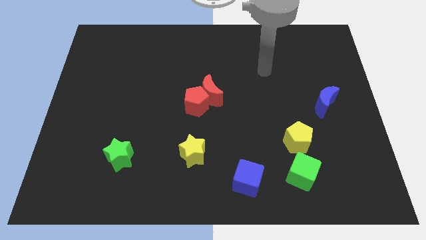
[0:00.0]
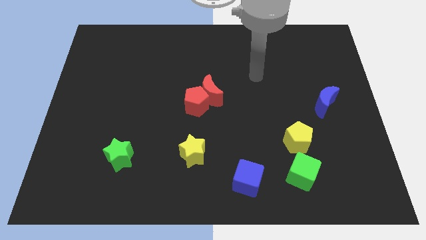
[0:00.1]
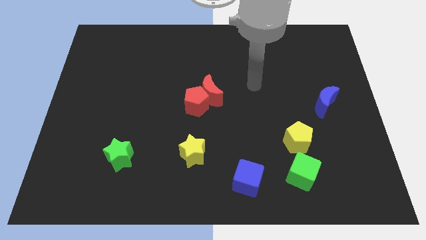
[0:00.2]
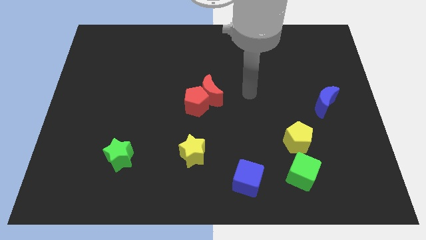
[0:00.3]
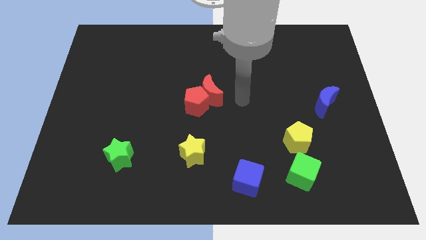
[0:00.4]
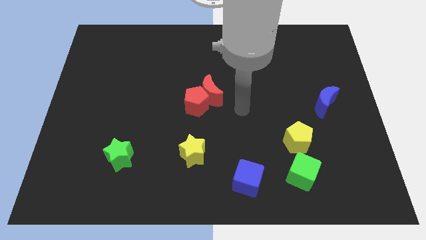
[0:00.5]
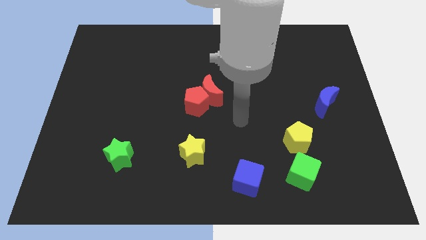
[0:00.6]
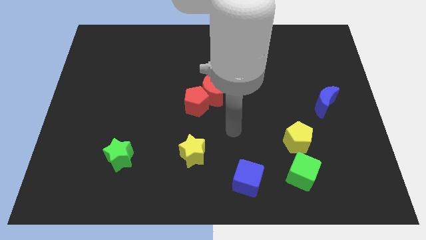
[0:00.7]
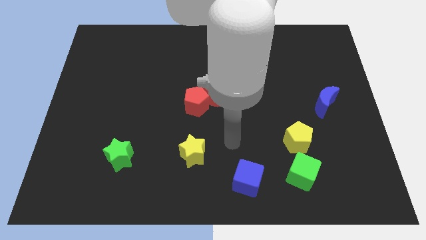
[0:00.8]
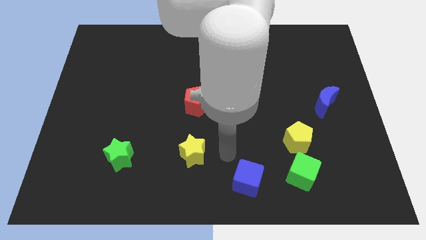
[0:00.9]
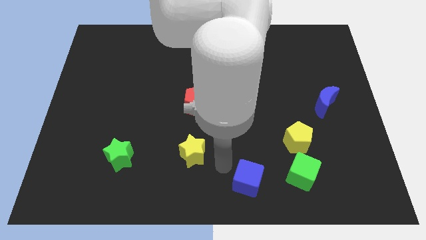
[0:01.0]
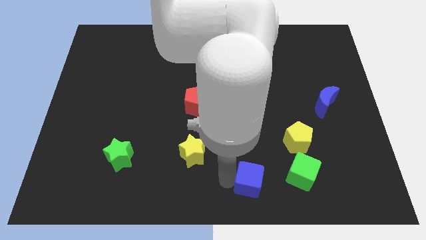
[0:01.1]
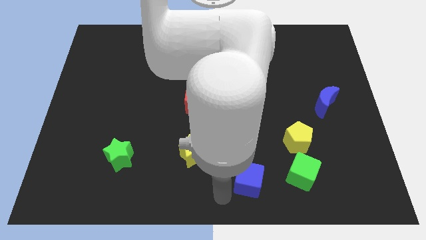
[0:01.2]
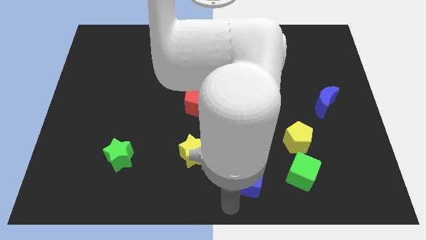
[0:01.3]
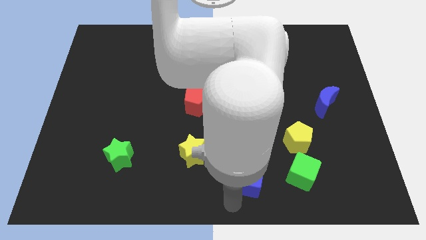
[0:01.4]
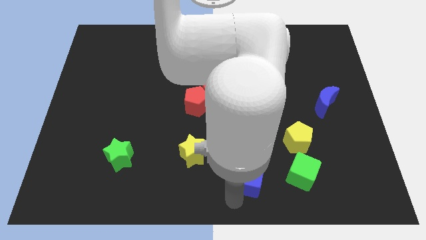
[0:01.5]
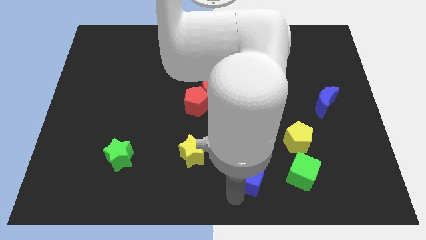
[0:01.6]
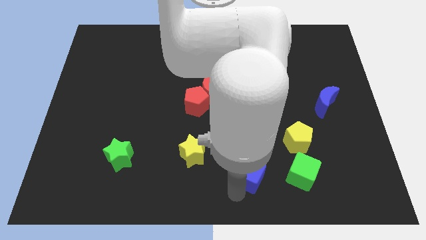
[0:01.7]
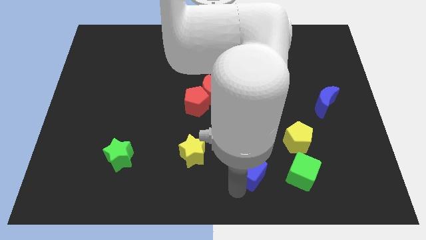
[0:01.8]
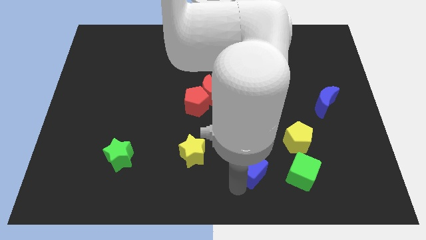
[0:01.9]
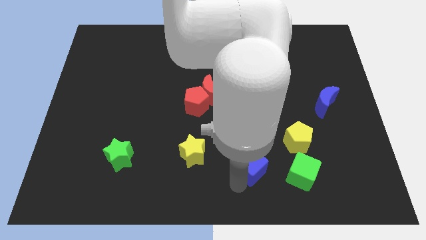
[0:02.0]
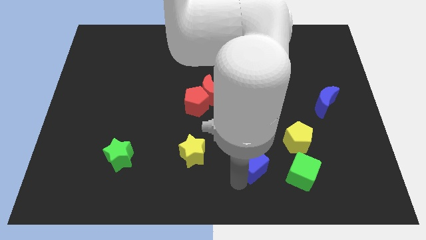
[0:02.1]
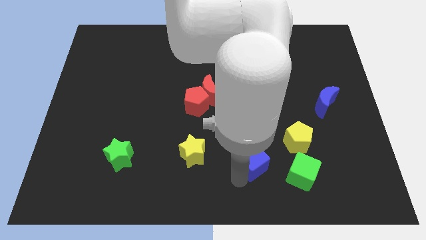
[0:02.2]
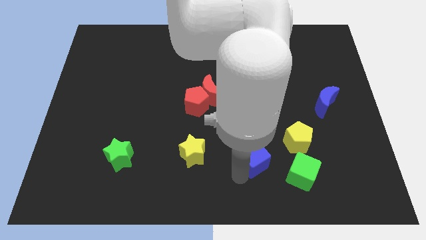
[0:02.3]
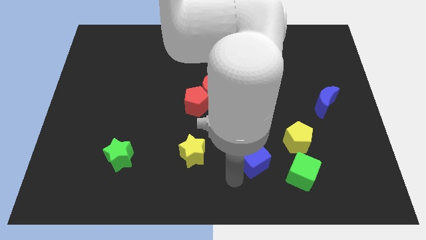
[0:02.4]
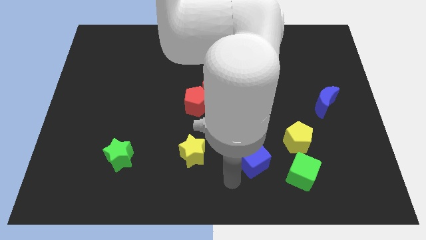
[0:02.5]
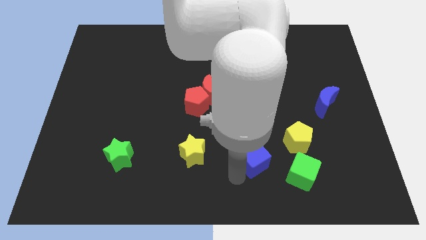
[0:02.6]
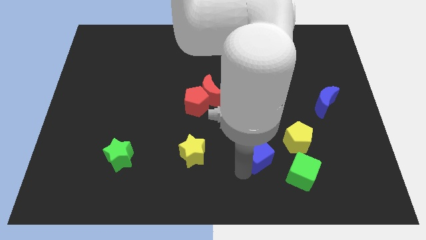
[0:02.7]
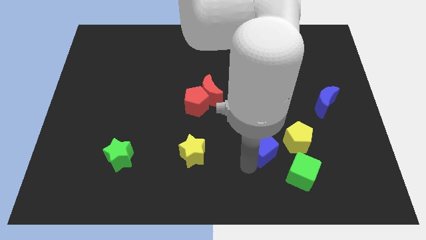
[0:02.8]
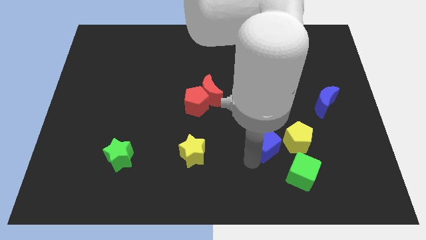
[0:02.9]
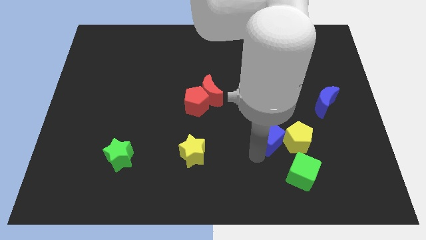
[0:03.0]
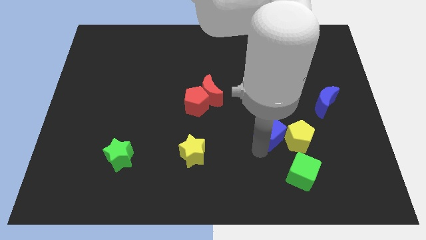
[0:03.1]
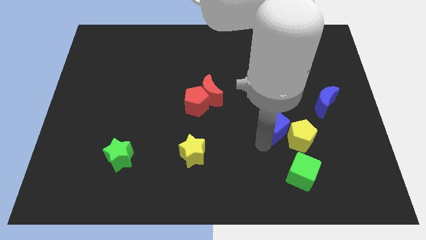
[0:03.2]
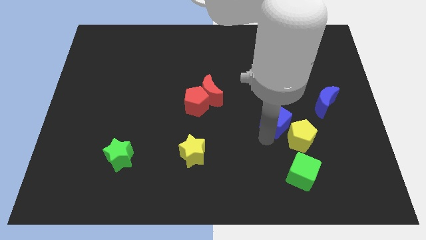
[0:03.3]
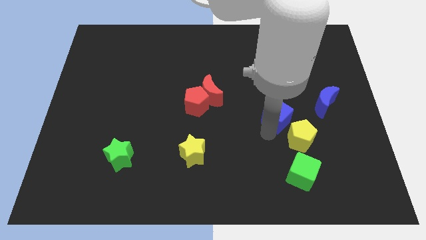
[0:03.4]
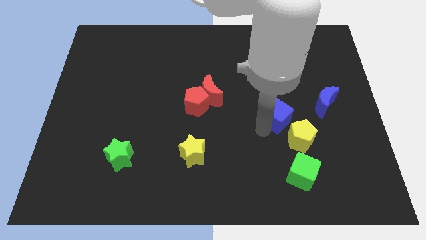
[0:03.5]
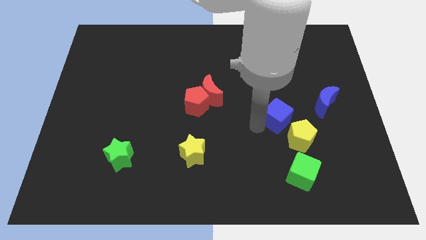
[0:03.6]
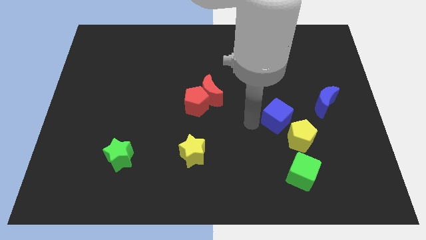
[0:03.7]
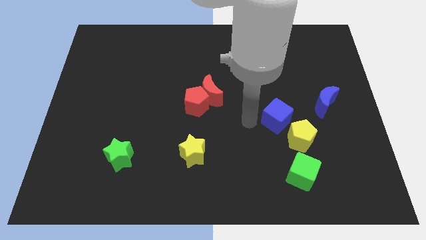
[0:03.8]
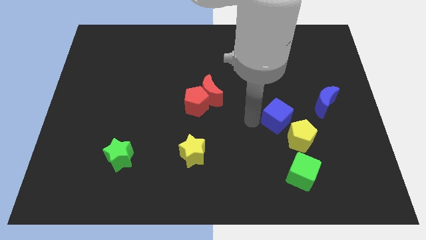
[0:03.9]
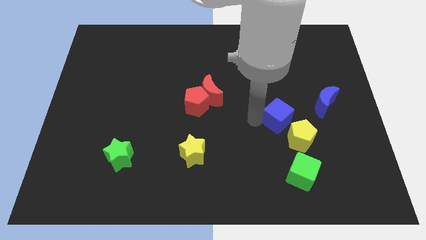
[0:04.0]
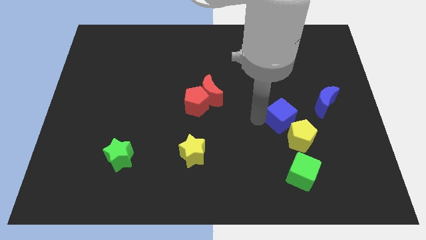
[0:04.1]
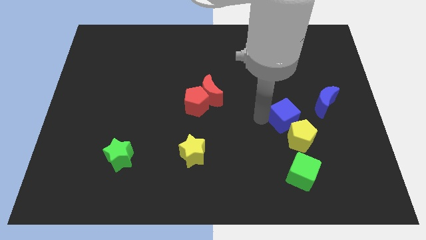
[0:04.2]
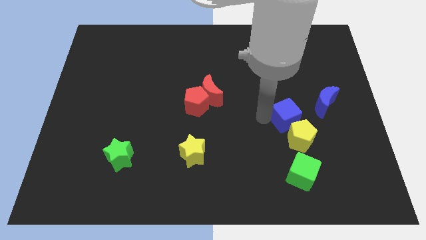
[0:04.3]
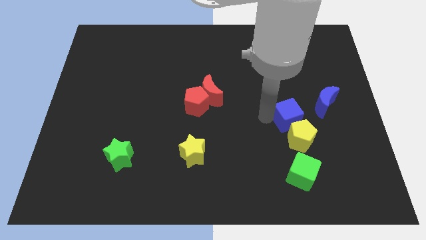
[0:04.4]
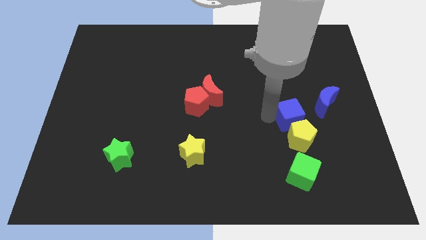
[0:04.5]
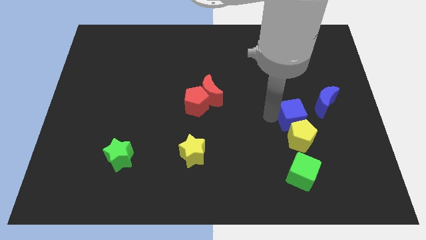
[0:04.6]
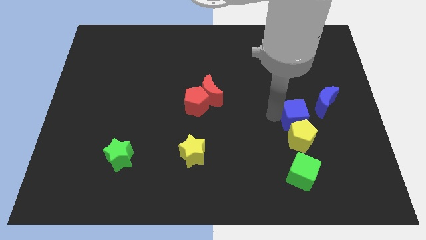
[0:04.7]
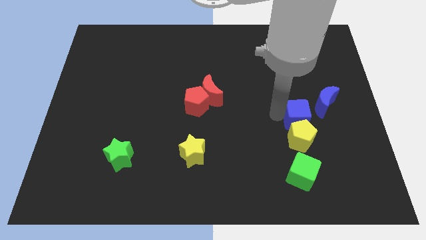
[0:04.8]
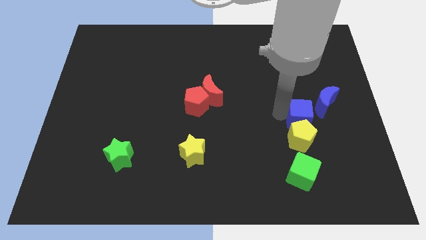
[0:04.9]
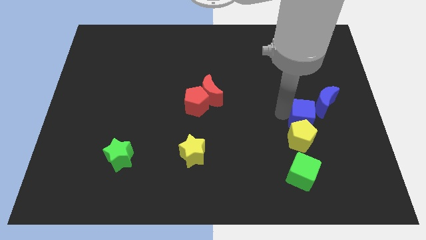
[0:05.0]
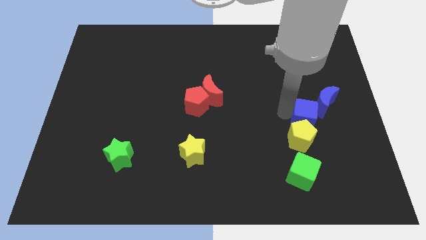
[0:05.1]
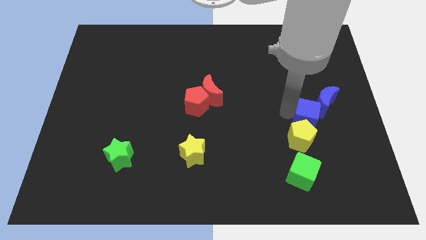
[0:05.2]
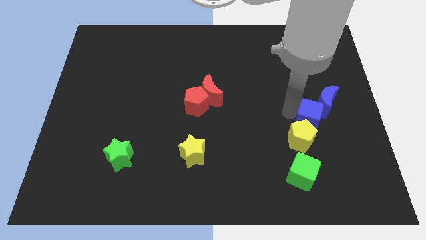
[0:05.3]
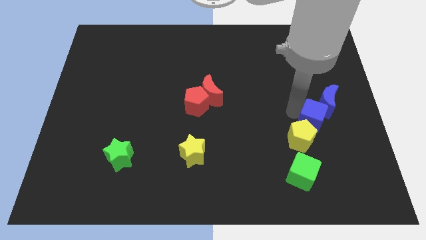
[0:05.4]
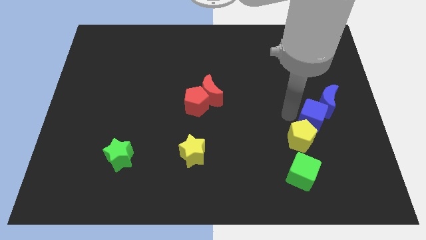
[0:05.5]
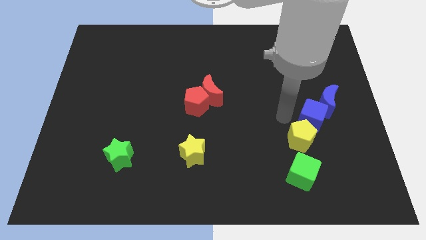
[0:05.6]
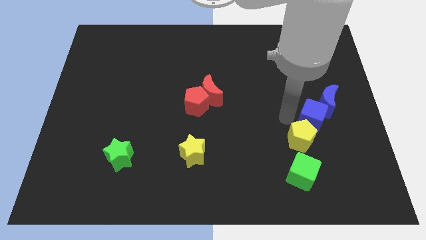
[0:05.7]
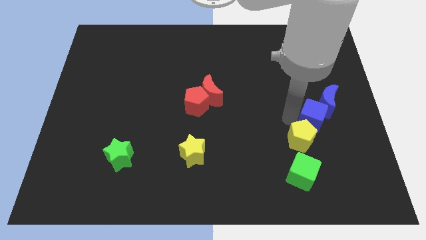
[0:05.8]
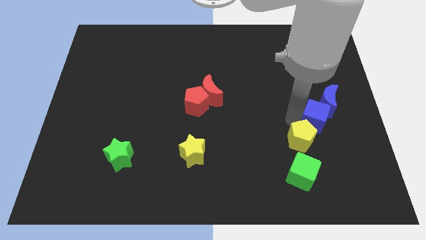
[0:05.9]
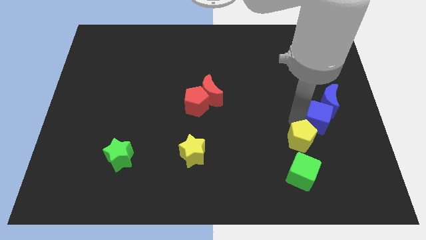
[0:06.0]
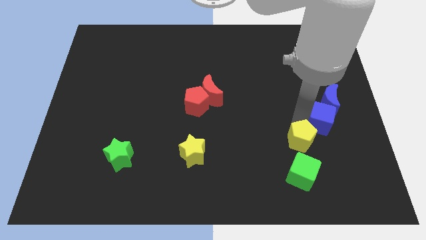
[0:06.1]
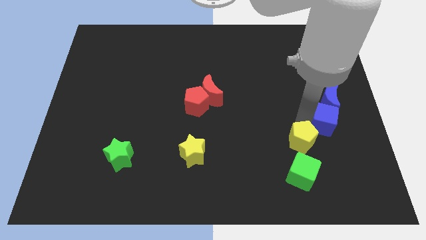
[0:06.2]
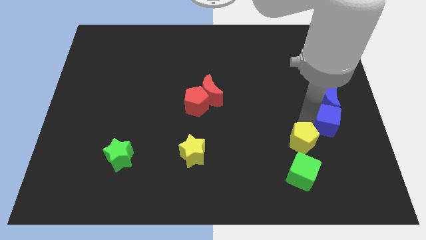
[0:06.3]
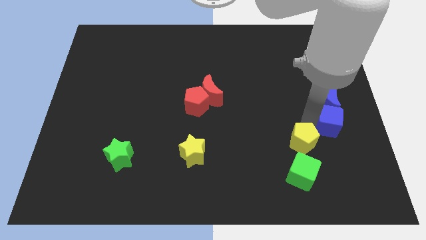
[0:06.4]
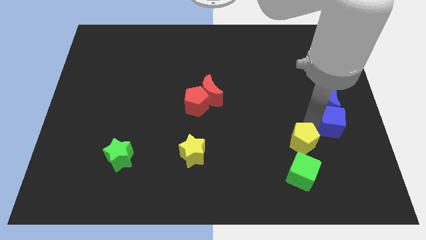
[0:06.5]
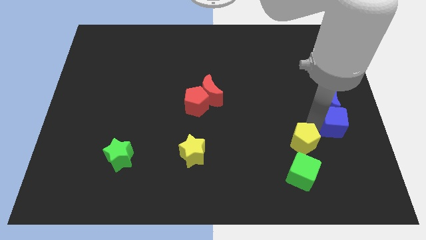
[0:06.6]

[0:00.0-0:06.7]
push the blue cube to the center right

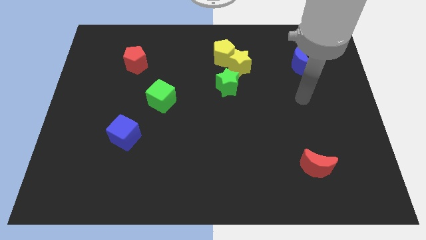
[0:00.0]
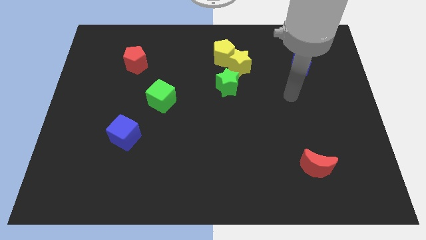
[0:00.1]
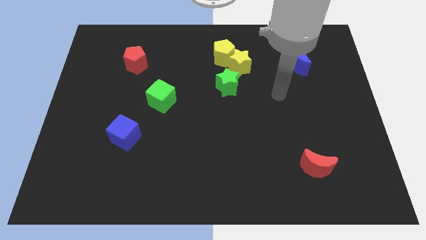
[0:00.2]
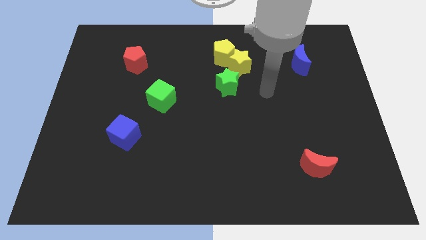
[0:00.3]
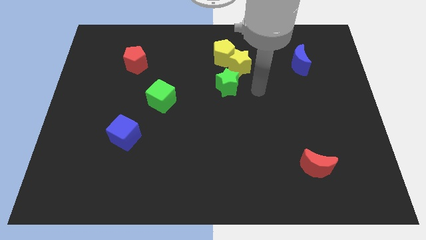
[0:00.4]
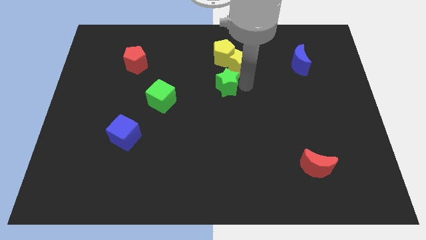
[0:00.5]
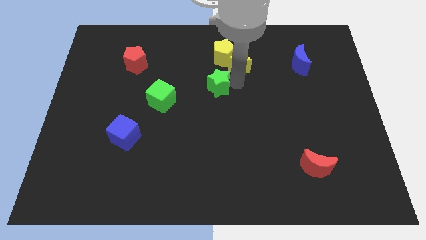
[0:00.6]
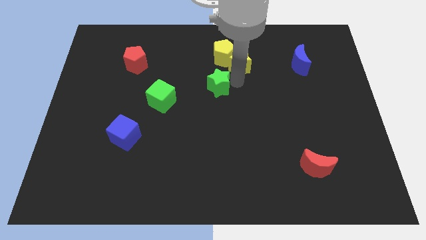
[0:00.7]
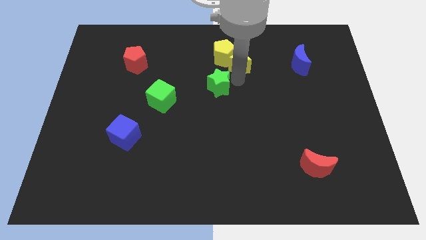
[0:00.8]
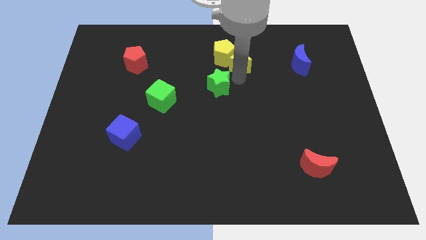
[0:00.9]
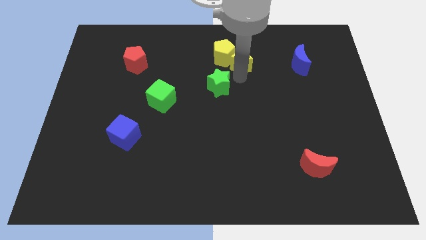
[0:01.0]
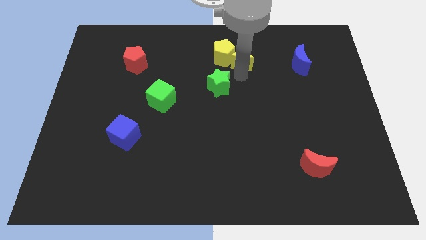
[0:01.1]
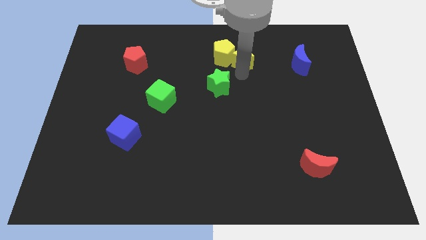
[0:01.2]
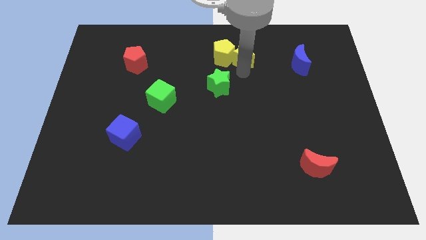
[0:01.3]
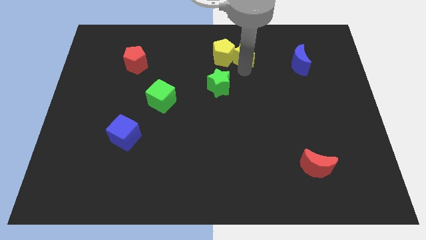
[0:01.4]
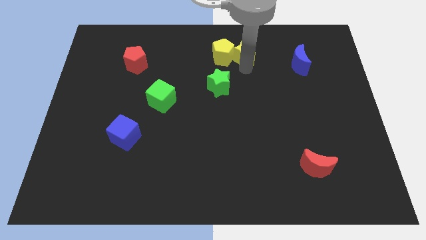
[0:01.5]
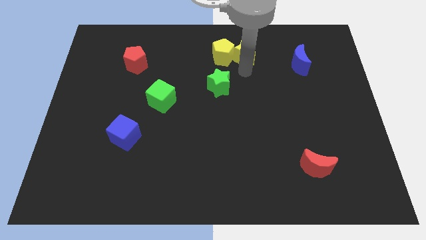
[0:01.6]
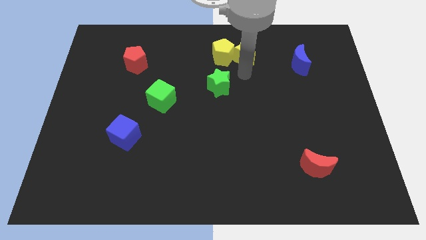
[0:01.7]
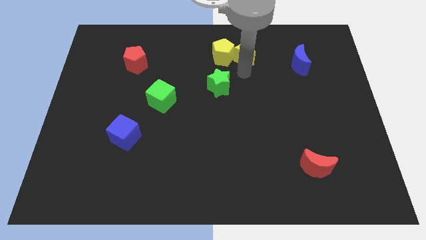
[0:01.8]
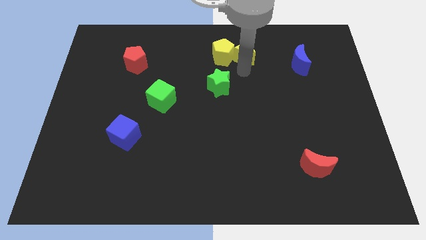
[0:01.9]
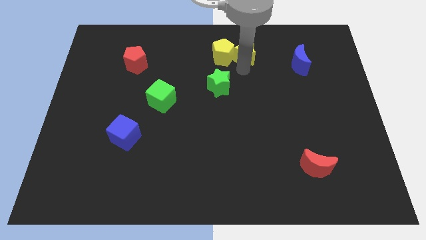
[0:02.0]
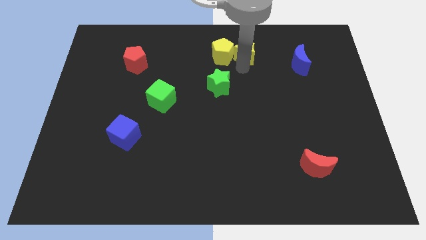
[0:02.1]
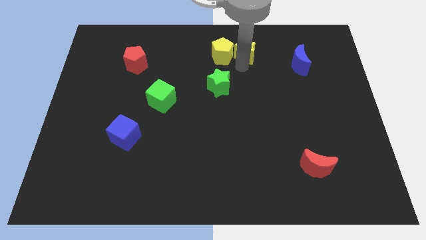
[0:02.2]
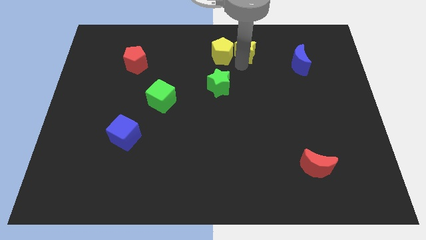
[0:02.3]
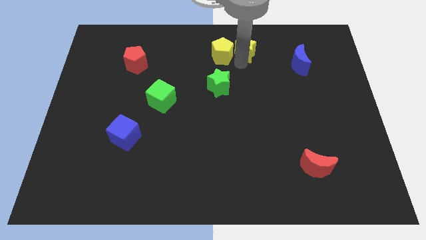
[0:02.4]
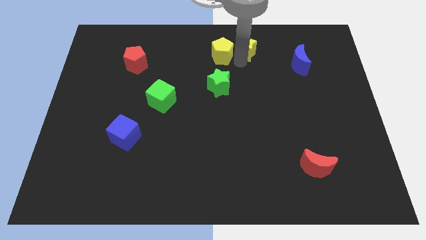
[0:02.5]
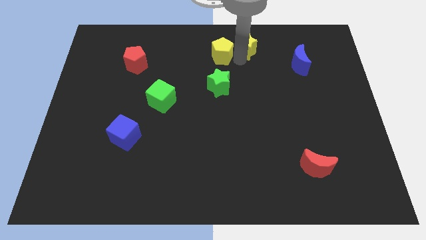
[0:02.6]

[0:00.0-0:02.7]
put the yellow star to the towards your base
